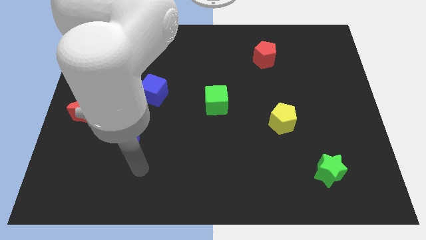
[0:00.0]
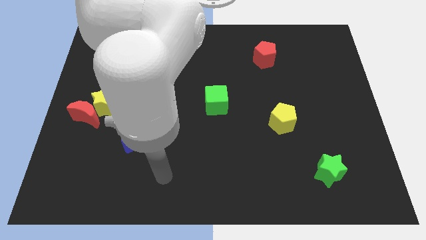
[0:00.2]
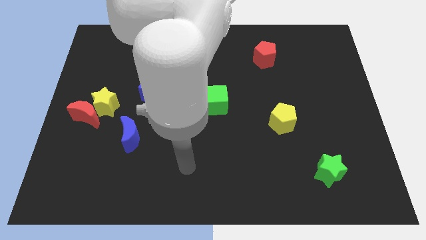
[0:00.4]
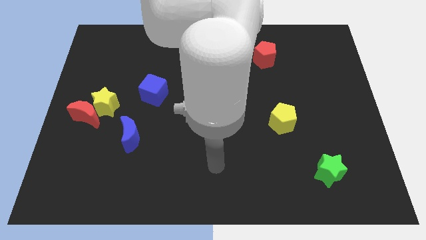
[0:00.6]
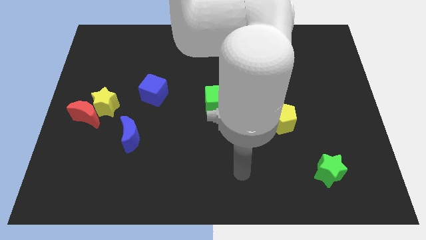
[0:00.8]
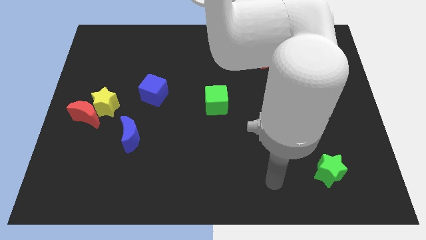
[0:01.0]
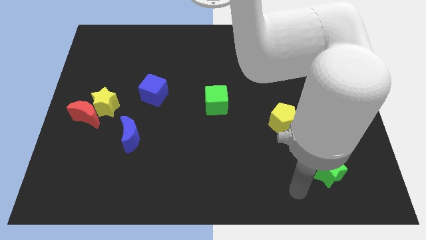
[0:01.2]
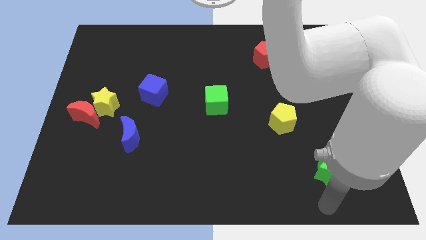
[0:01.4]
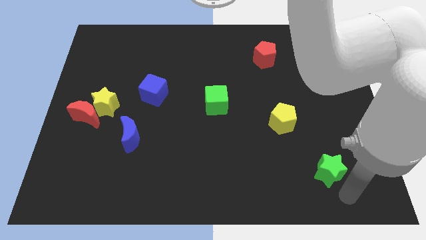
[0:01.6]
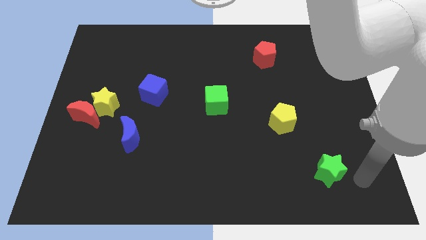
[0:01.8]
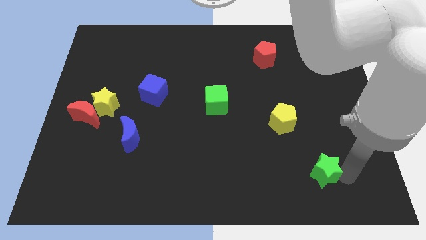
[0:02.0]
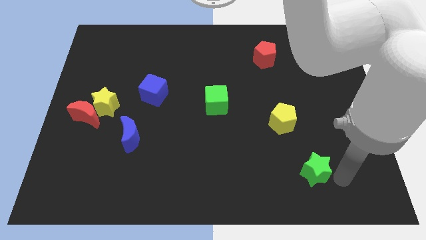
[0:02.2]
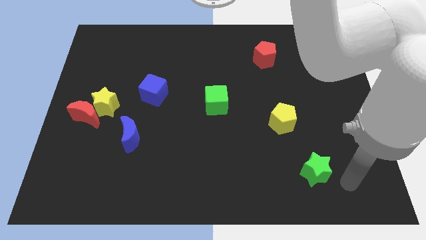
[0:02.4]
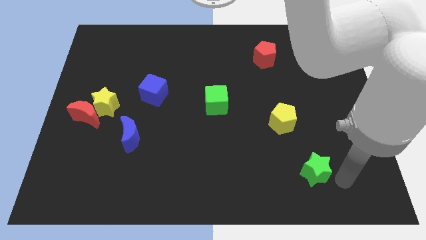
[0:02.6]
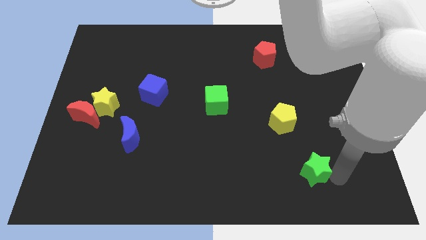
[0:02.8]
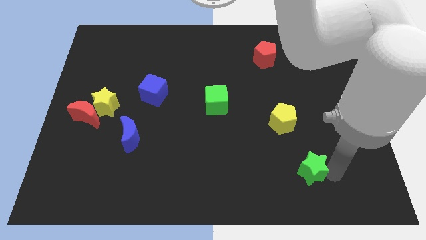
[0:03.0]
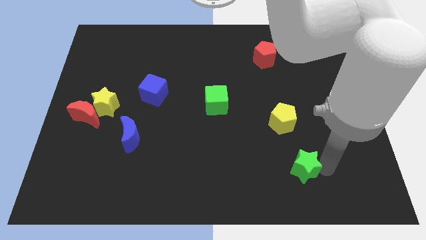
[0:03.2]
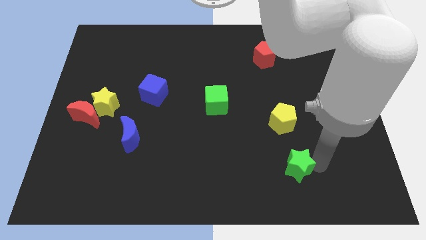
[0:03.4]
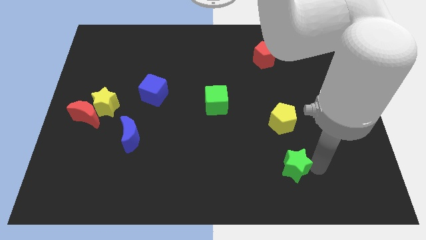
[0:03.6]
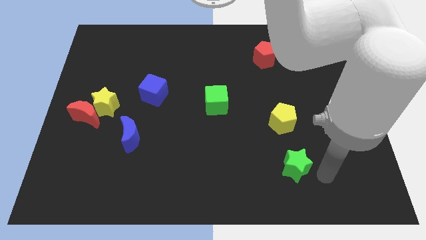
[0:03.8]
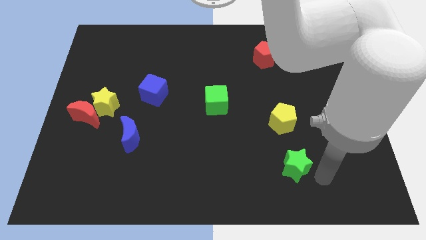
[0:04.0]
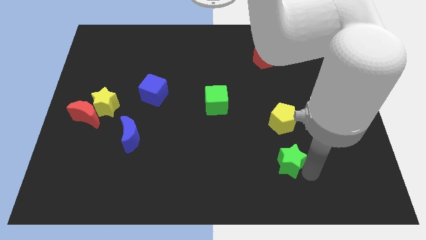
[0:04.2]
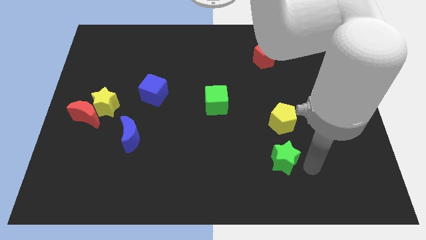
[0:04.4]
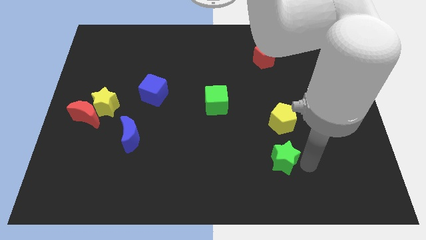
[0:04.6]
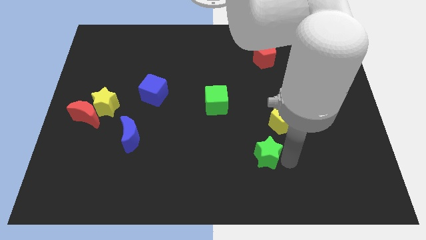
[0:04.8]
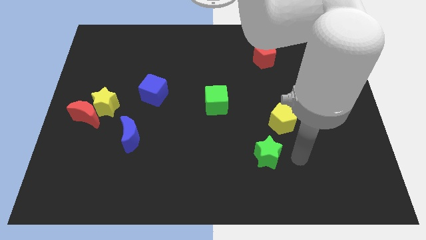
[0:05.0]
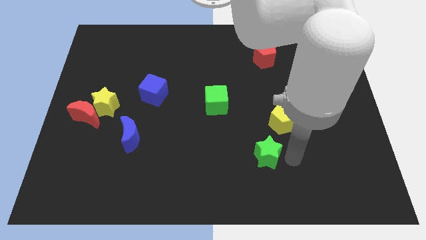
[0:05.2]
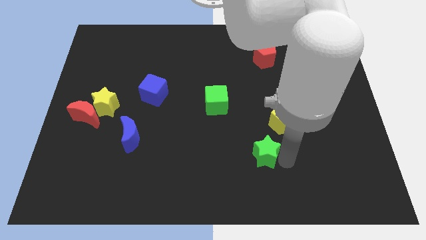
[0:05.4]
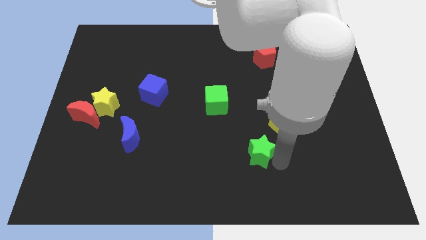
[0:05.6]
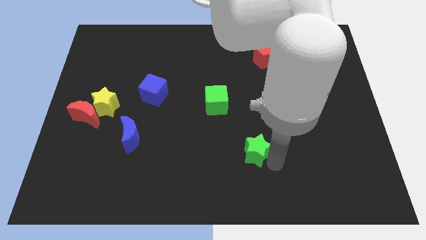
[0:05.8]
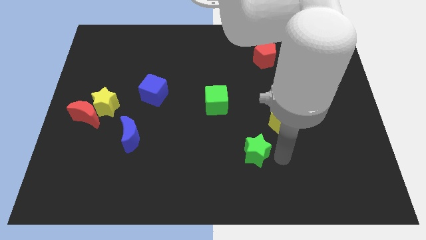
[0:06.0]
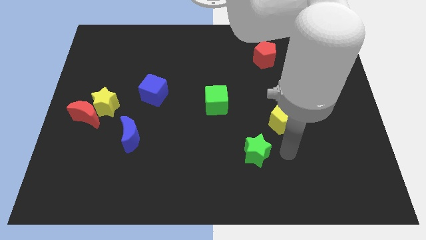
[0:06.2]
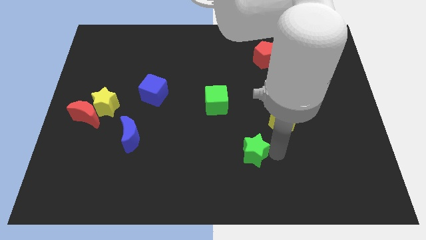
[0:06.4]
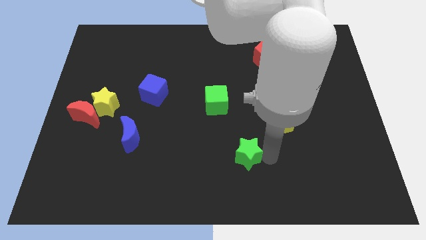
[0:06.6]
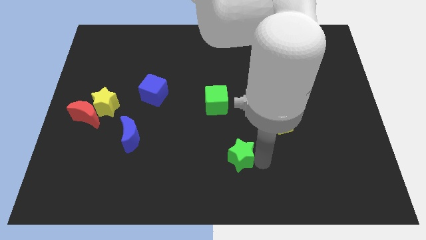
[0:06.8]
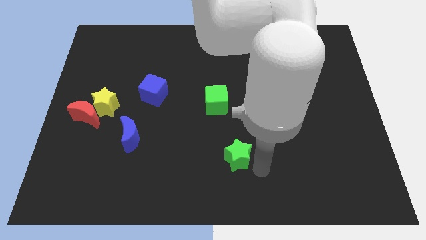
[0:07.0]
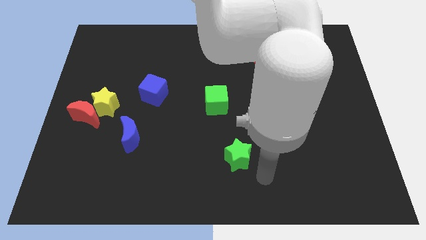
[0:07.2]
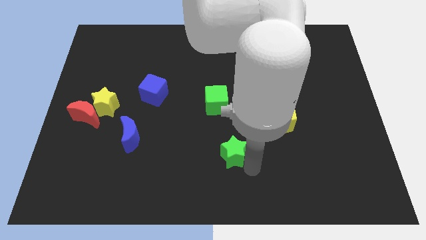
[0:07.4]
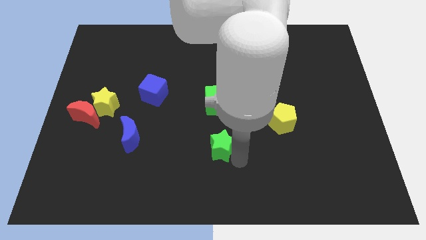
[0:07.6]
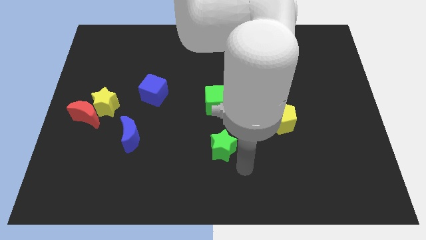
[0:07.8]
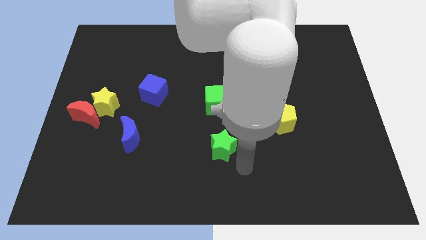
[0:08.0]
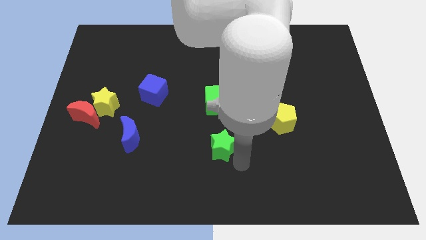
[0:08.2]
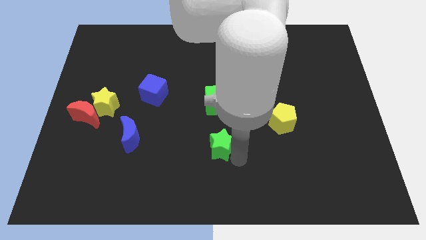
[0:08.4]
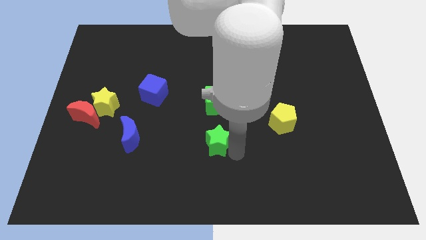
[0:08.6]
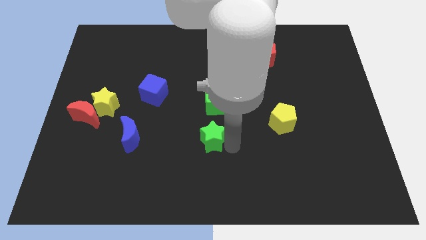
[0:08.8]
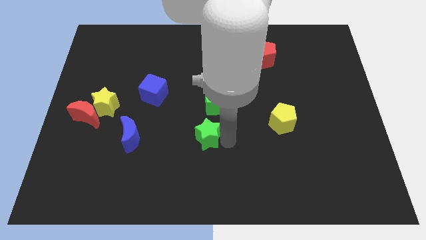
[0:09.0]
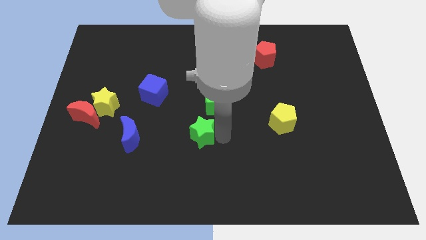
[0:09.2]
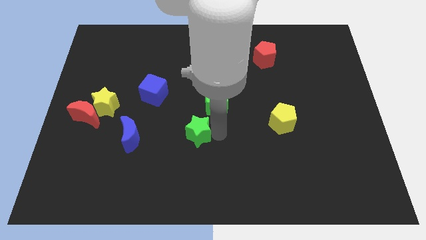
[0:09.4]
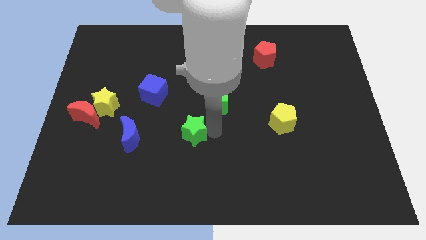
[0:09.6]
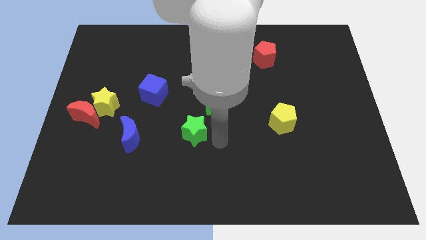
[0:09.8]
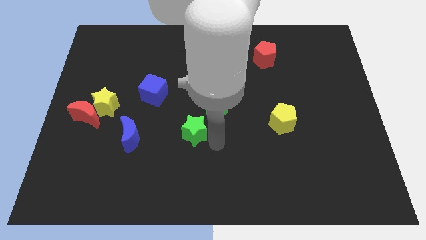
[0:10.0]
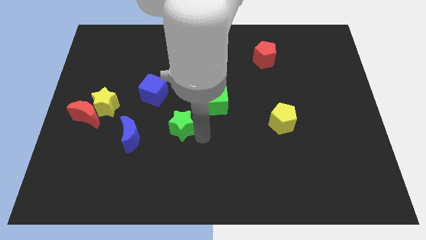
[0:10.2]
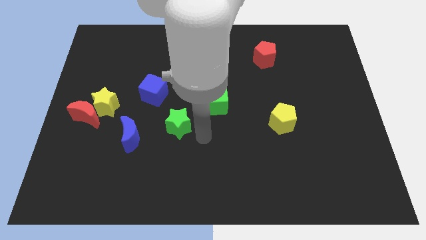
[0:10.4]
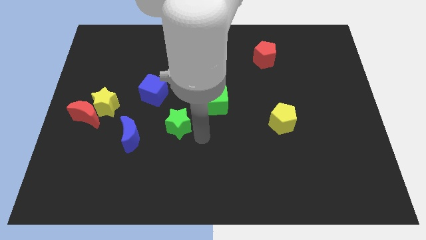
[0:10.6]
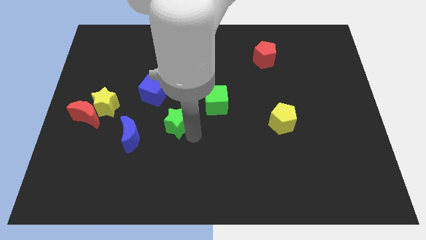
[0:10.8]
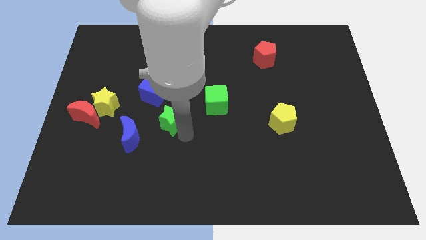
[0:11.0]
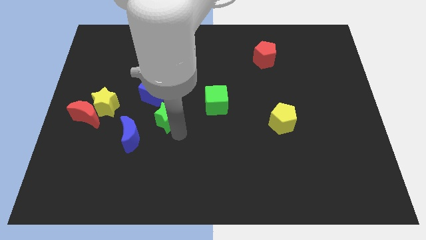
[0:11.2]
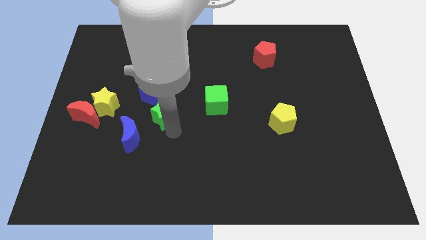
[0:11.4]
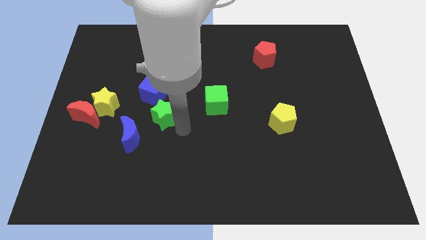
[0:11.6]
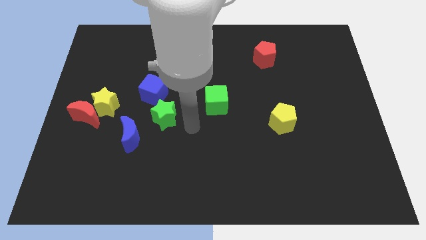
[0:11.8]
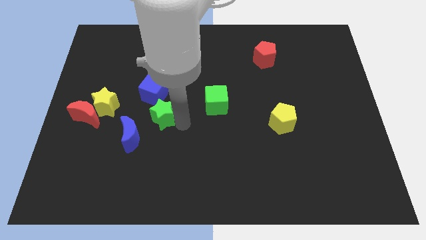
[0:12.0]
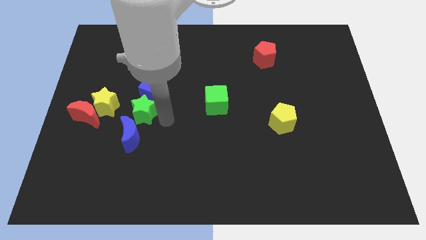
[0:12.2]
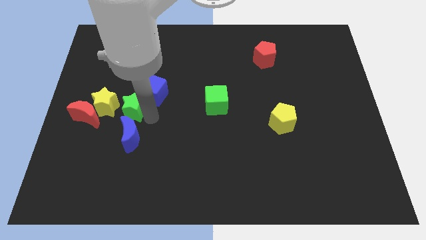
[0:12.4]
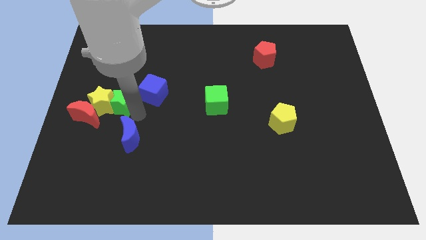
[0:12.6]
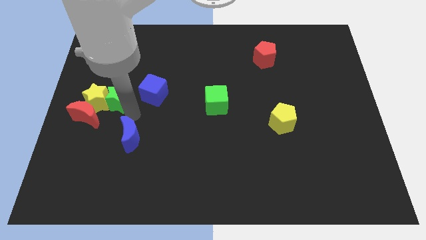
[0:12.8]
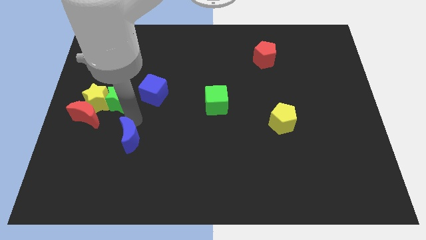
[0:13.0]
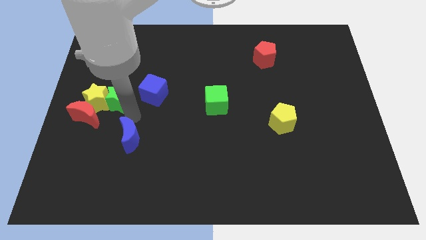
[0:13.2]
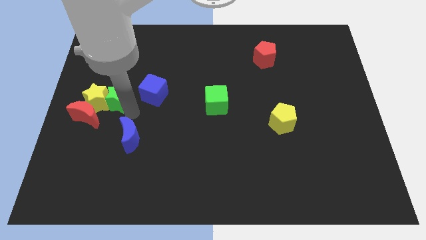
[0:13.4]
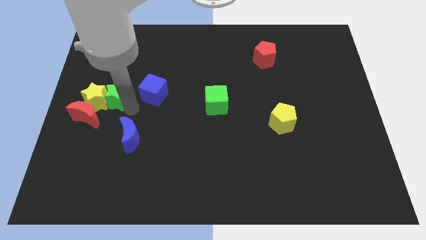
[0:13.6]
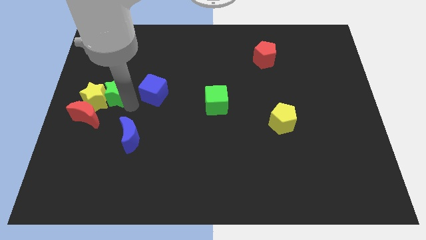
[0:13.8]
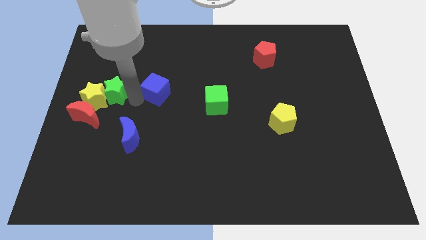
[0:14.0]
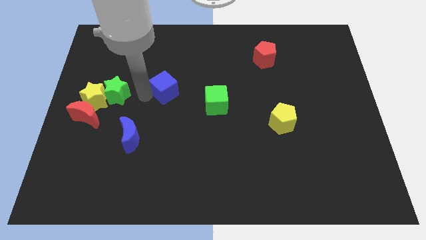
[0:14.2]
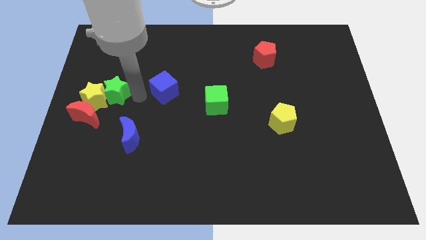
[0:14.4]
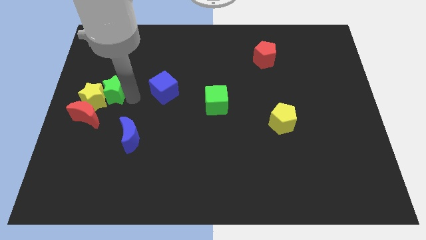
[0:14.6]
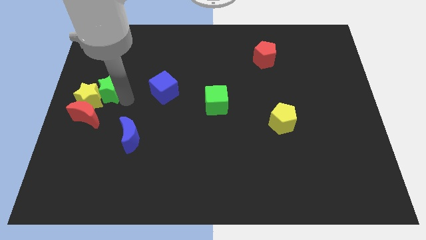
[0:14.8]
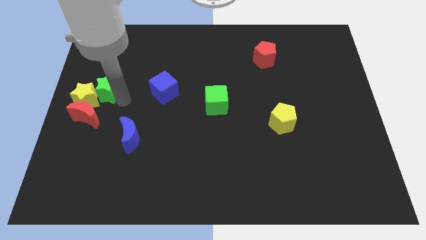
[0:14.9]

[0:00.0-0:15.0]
move the green star to the center left
